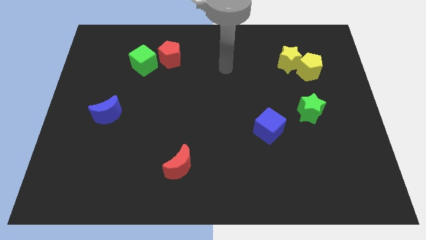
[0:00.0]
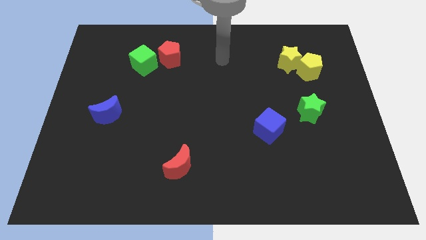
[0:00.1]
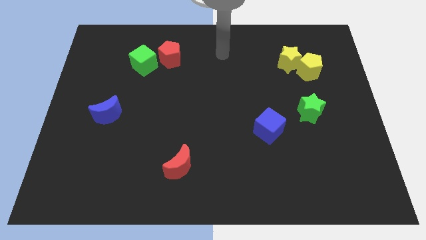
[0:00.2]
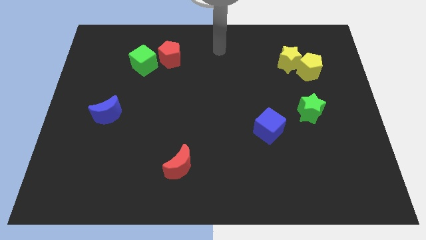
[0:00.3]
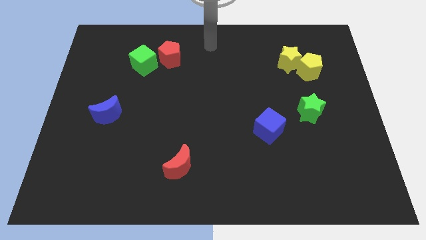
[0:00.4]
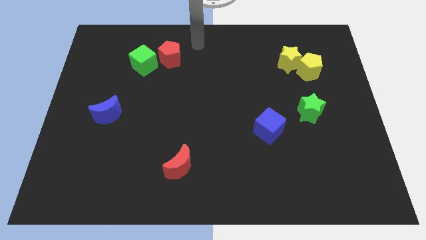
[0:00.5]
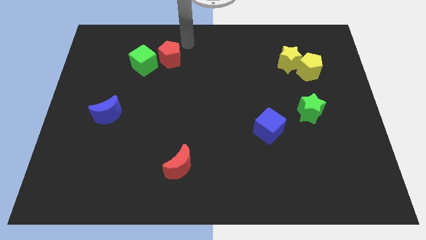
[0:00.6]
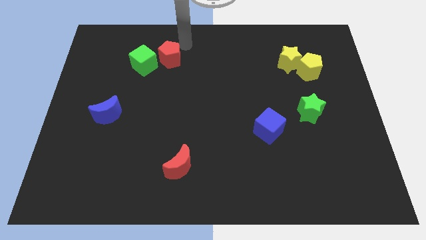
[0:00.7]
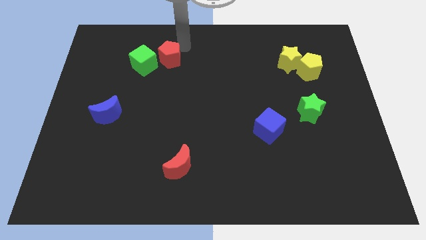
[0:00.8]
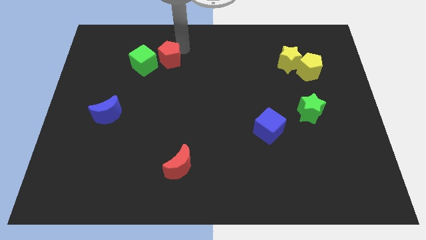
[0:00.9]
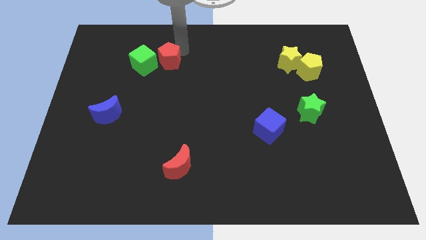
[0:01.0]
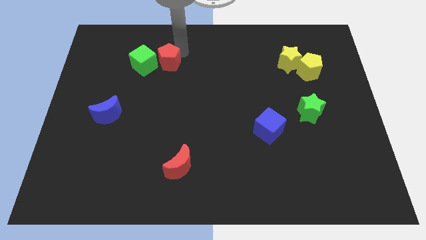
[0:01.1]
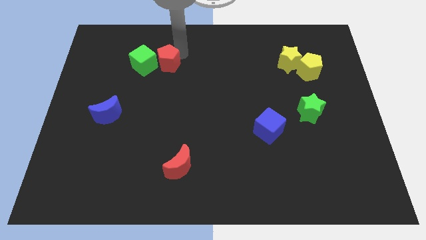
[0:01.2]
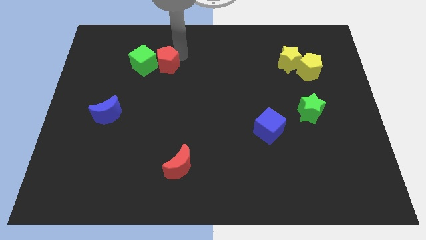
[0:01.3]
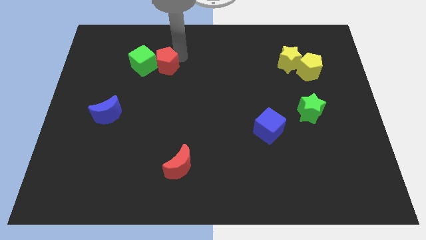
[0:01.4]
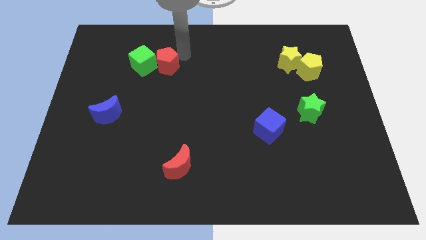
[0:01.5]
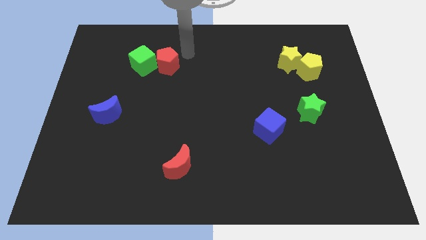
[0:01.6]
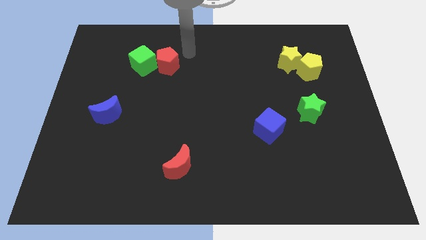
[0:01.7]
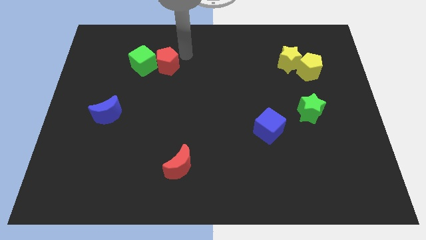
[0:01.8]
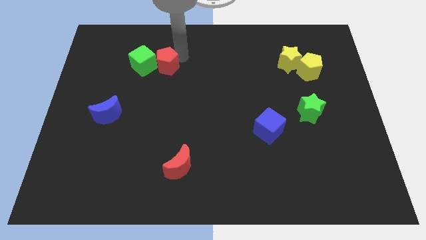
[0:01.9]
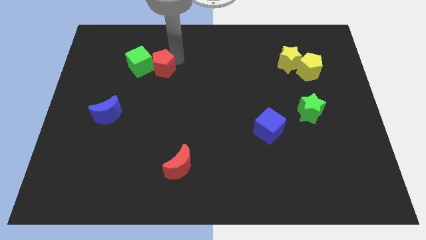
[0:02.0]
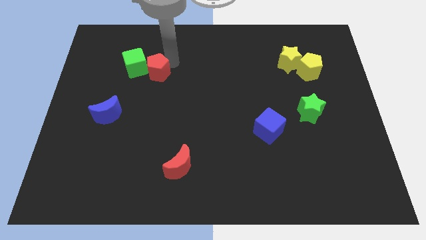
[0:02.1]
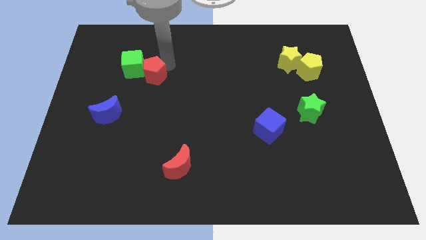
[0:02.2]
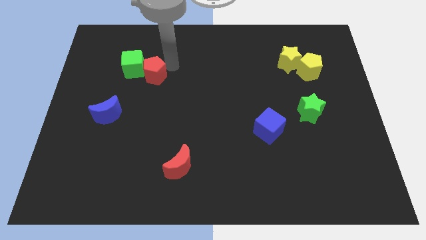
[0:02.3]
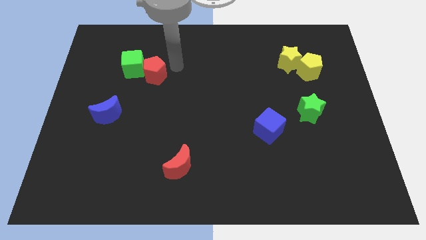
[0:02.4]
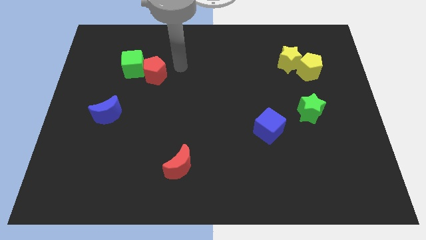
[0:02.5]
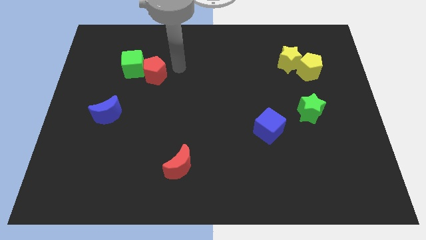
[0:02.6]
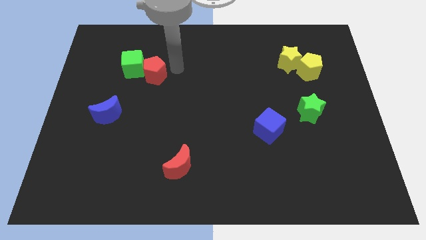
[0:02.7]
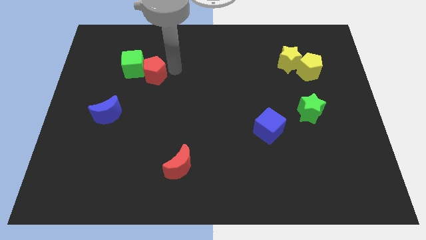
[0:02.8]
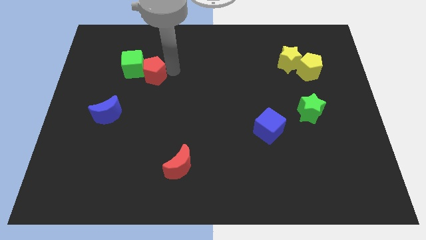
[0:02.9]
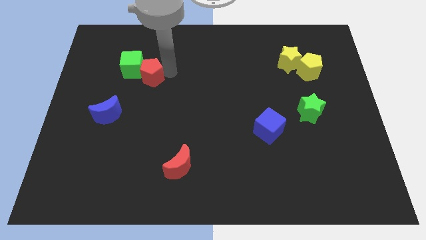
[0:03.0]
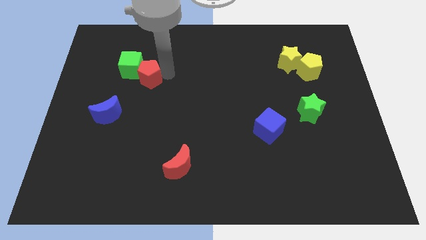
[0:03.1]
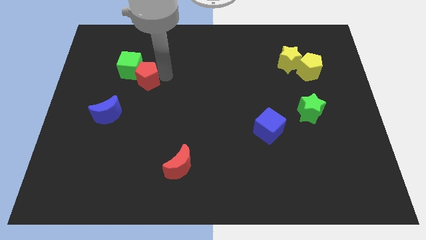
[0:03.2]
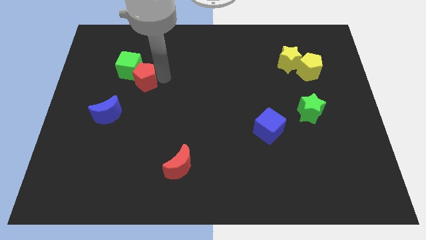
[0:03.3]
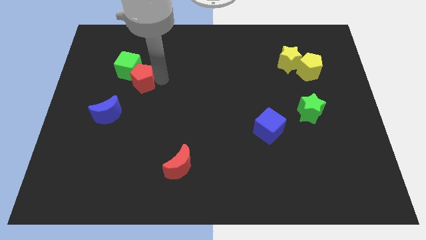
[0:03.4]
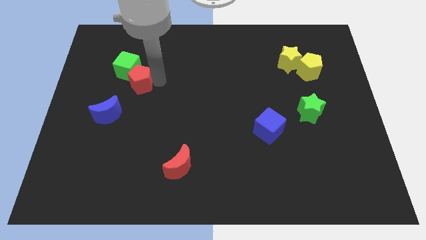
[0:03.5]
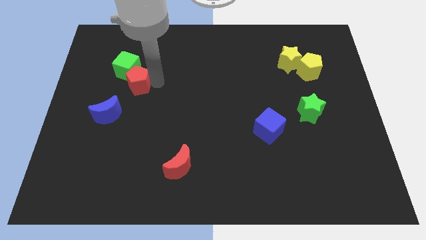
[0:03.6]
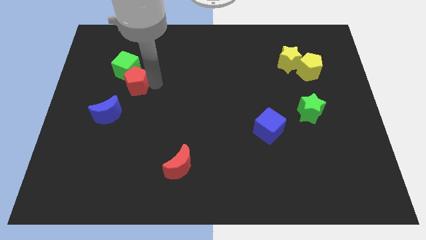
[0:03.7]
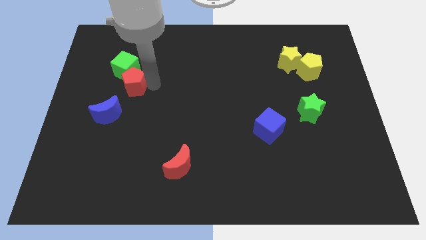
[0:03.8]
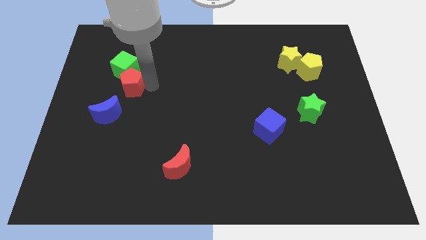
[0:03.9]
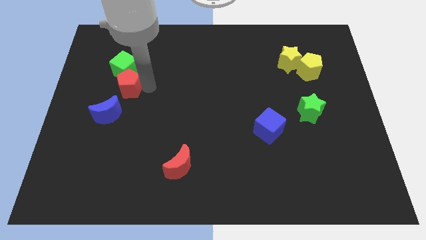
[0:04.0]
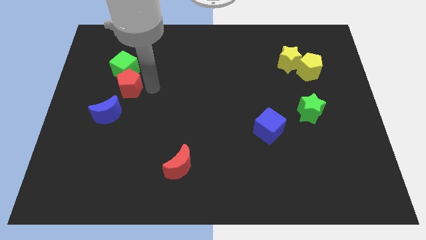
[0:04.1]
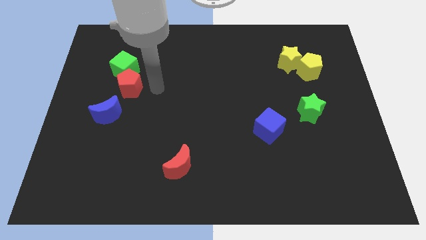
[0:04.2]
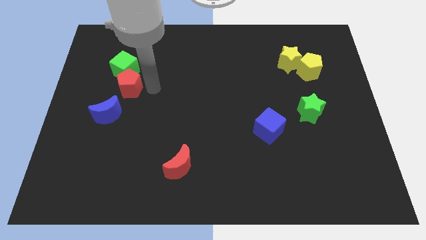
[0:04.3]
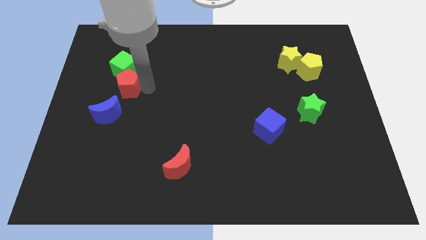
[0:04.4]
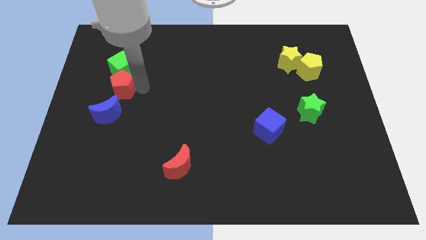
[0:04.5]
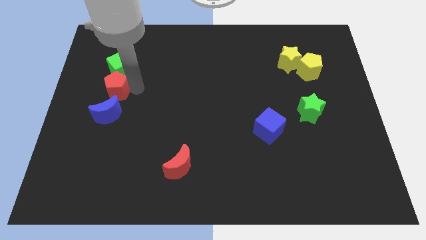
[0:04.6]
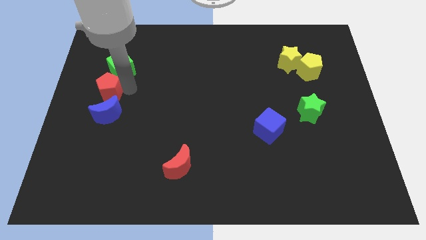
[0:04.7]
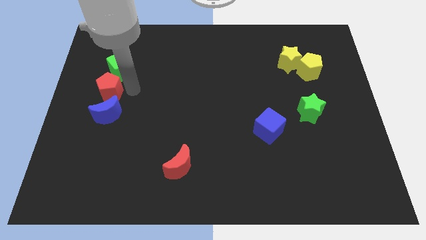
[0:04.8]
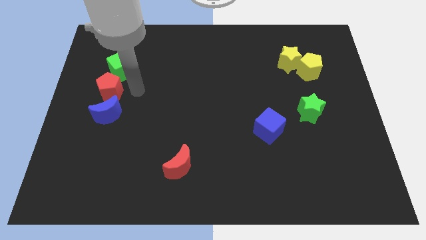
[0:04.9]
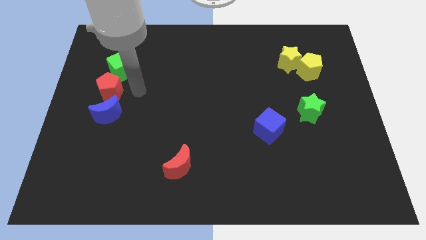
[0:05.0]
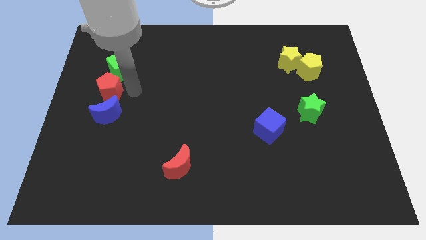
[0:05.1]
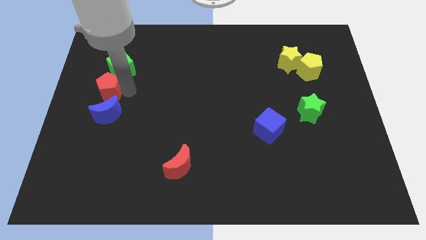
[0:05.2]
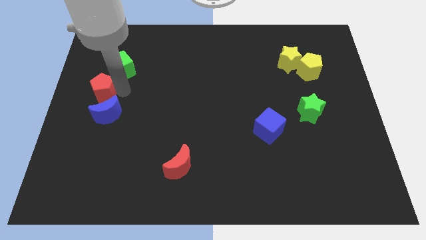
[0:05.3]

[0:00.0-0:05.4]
move the red pentagon to the left side of the board
